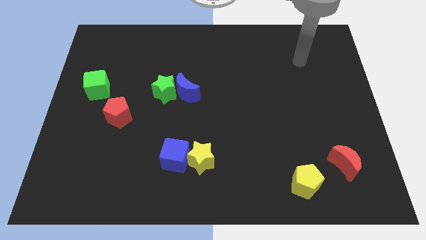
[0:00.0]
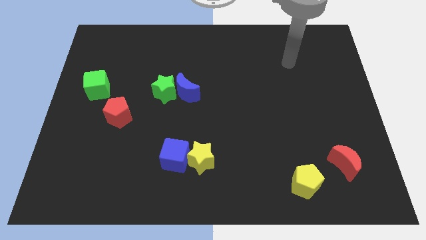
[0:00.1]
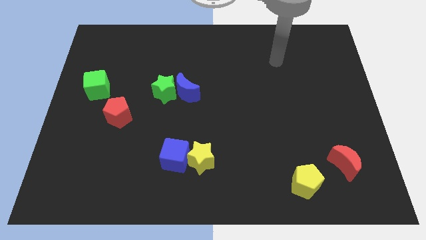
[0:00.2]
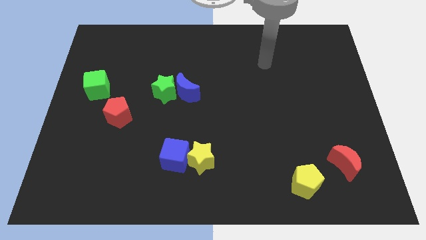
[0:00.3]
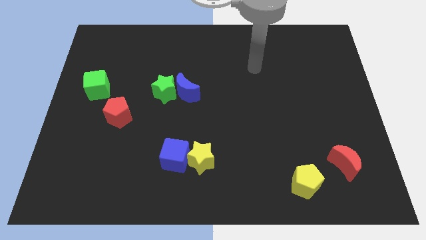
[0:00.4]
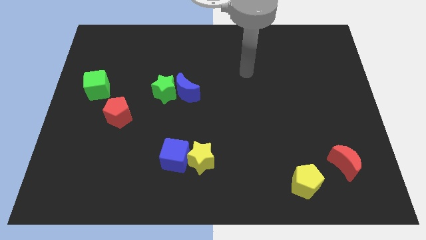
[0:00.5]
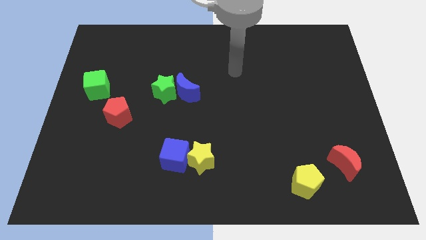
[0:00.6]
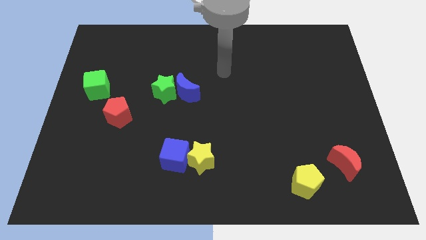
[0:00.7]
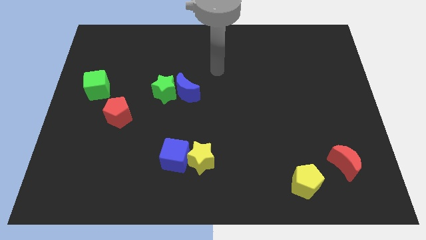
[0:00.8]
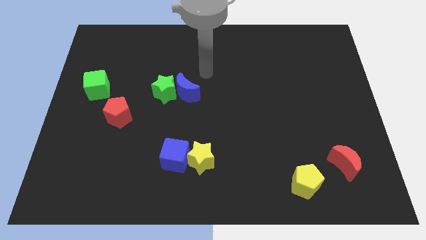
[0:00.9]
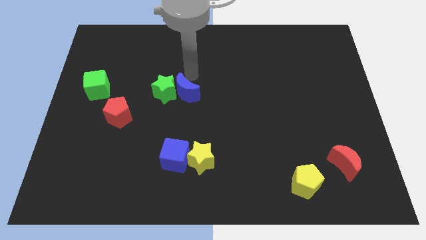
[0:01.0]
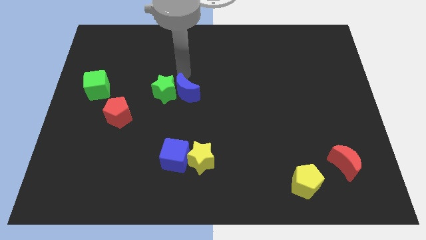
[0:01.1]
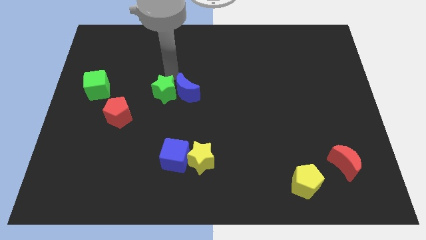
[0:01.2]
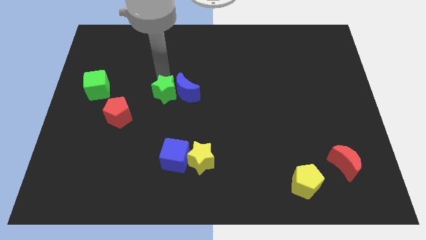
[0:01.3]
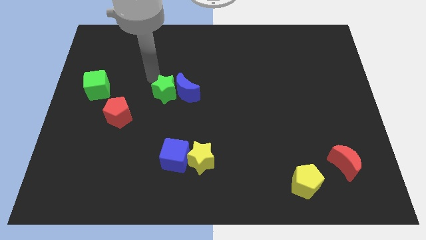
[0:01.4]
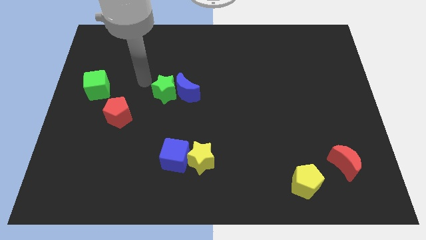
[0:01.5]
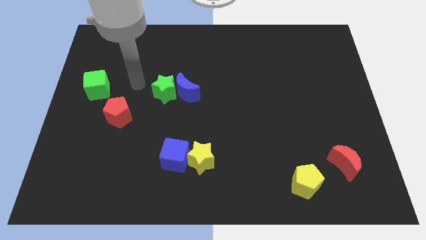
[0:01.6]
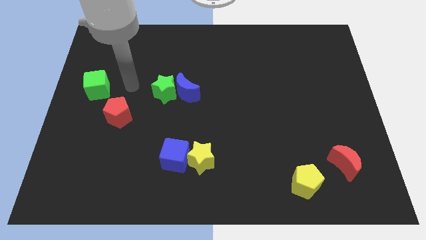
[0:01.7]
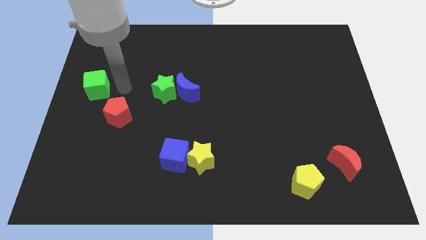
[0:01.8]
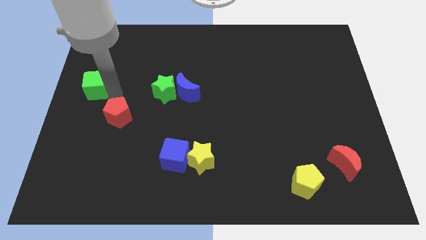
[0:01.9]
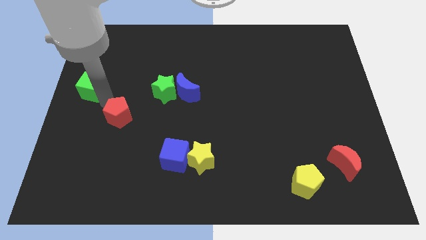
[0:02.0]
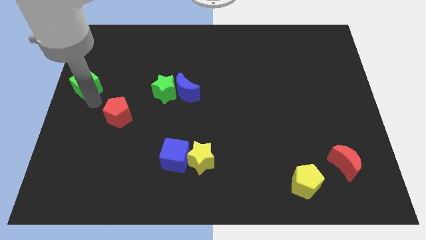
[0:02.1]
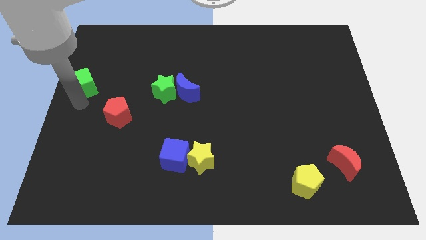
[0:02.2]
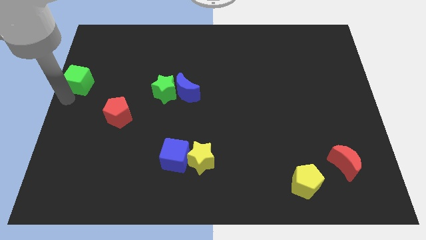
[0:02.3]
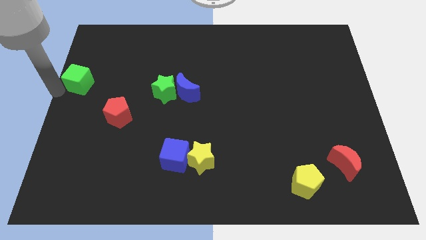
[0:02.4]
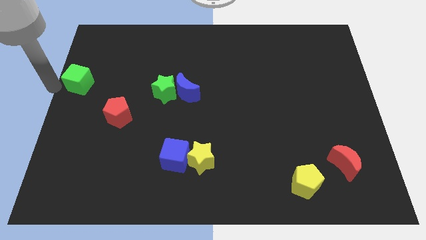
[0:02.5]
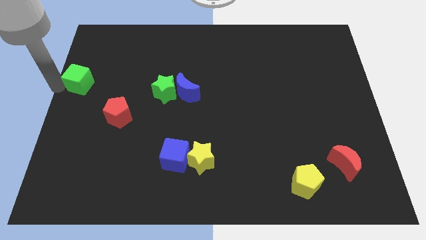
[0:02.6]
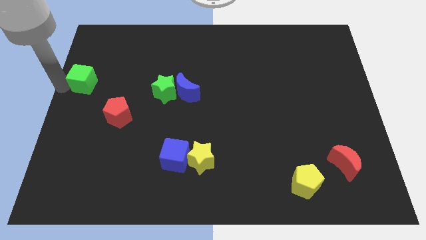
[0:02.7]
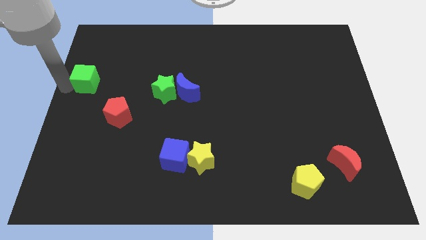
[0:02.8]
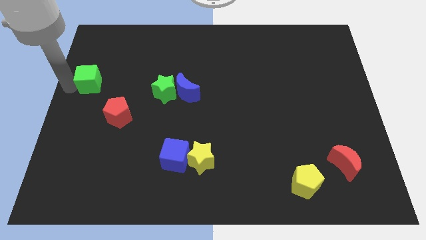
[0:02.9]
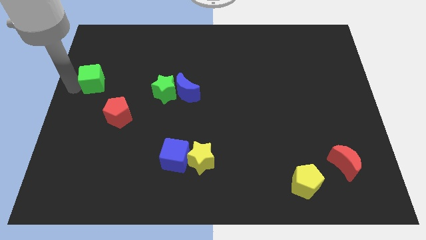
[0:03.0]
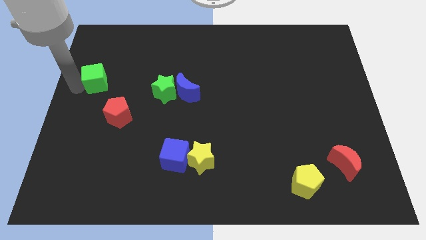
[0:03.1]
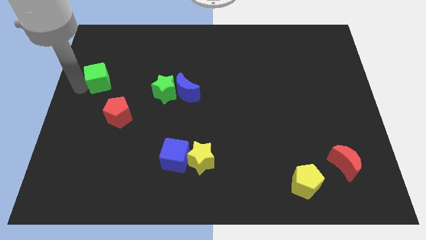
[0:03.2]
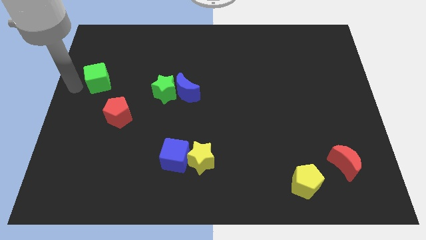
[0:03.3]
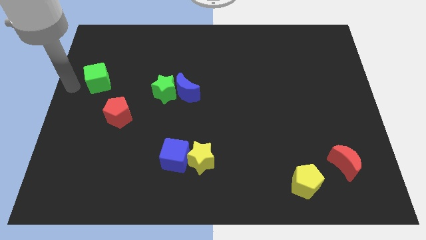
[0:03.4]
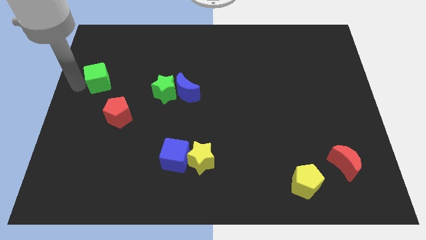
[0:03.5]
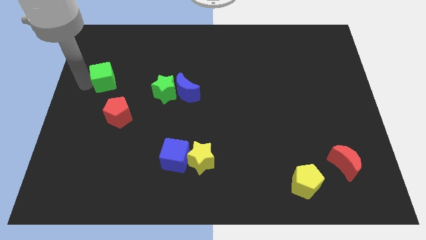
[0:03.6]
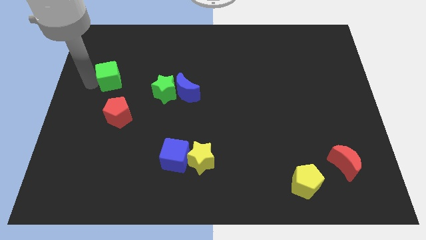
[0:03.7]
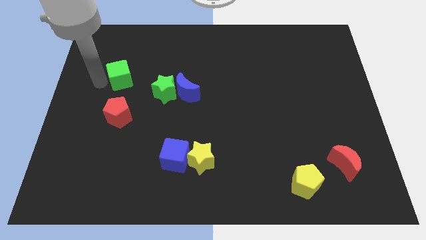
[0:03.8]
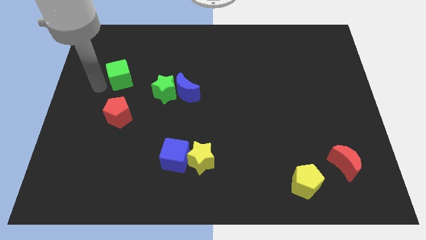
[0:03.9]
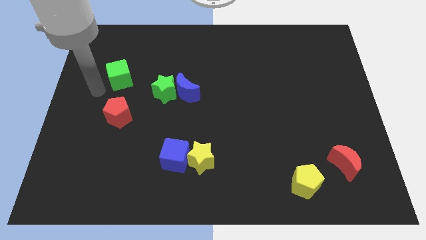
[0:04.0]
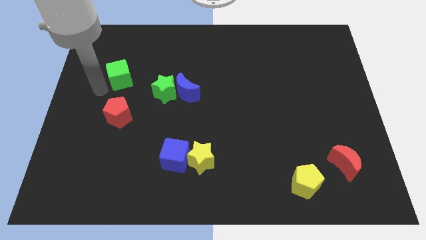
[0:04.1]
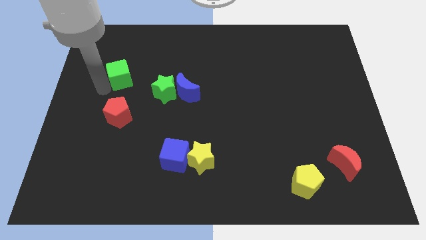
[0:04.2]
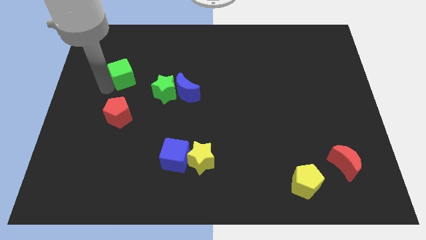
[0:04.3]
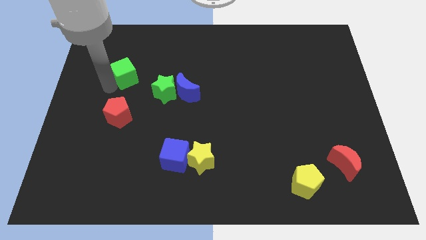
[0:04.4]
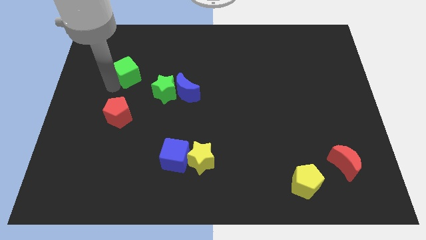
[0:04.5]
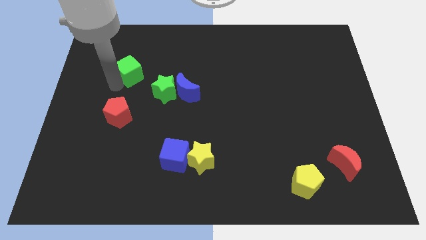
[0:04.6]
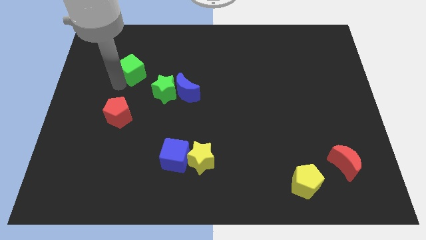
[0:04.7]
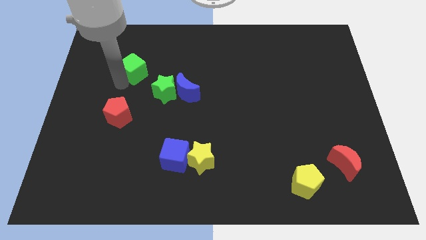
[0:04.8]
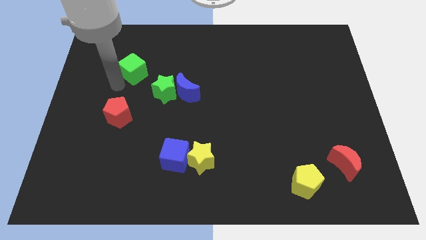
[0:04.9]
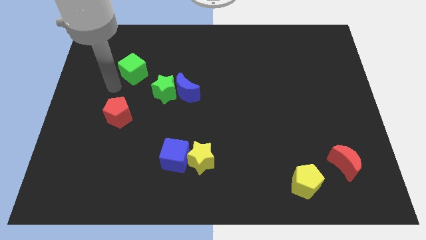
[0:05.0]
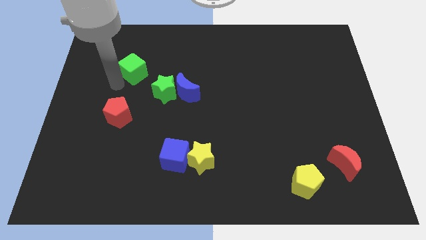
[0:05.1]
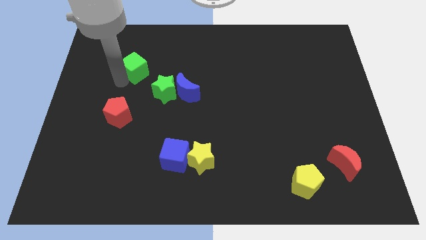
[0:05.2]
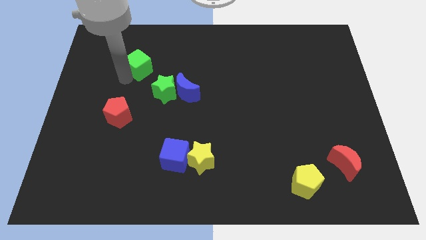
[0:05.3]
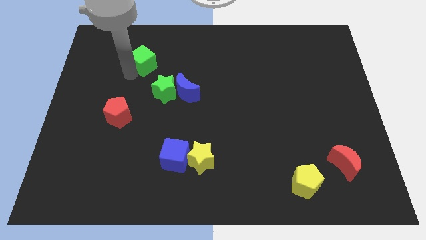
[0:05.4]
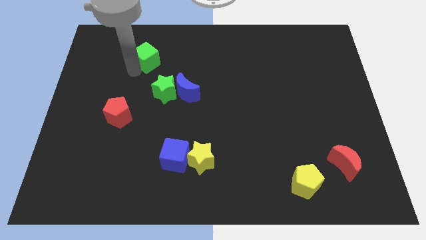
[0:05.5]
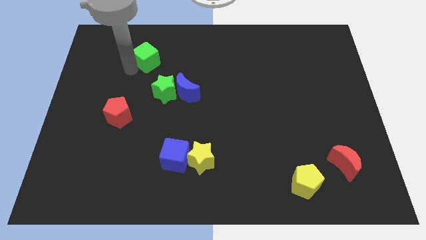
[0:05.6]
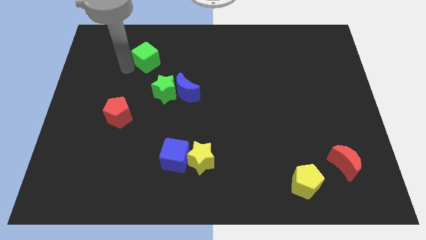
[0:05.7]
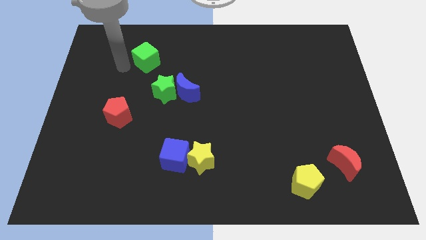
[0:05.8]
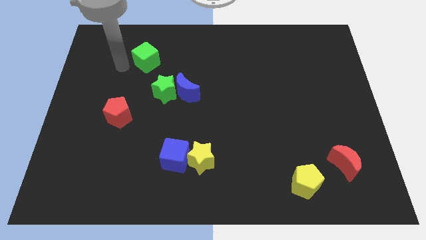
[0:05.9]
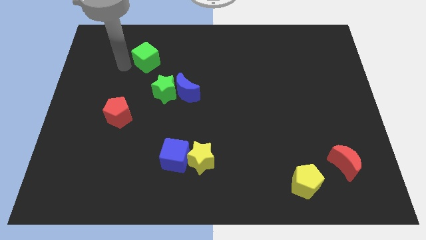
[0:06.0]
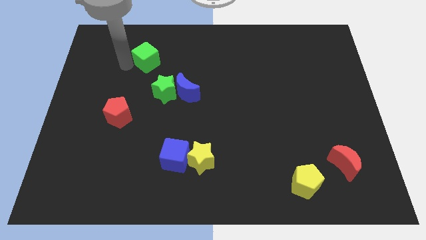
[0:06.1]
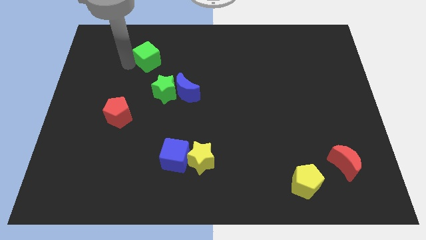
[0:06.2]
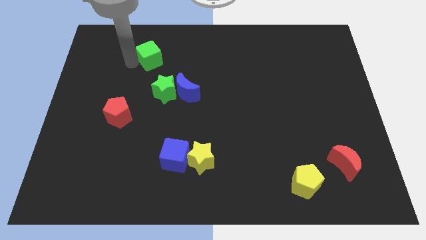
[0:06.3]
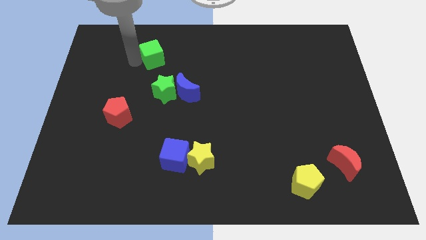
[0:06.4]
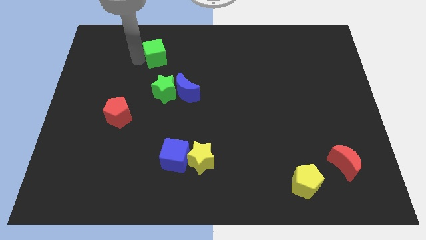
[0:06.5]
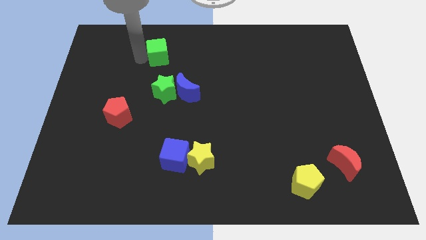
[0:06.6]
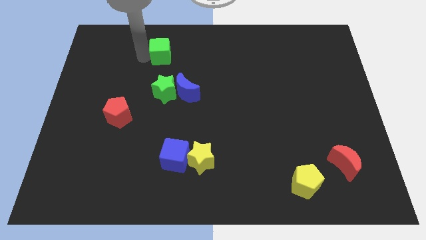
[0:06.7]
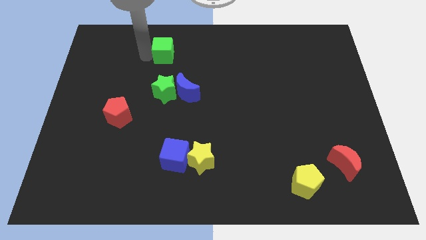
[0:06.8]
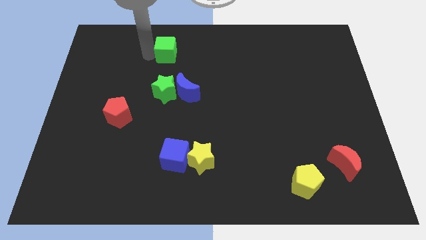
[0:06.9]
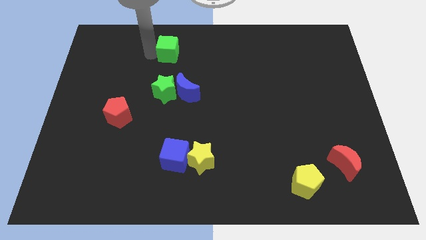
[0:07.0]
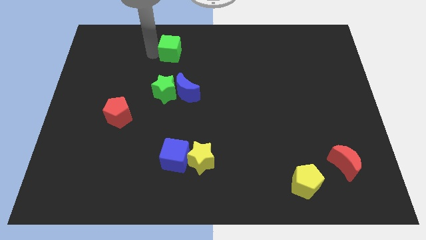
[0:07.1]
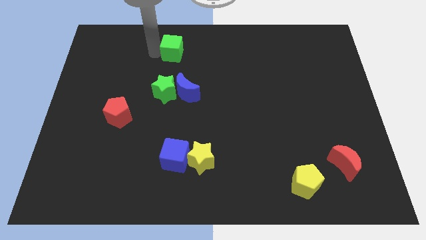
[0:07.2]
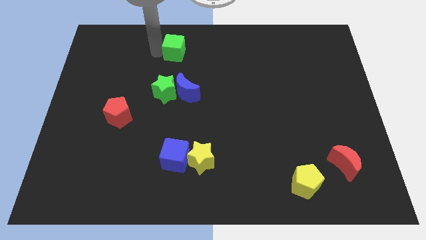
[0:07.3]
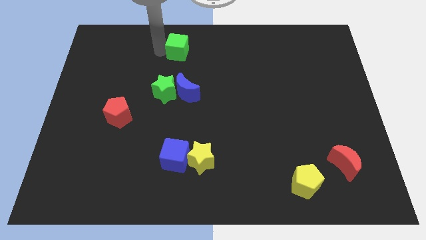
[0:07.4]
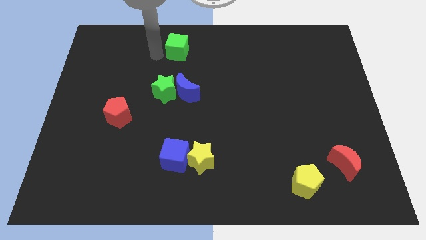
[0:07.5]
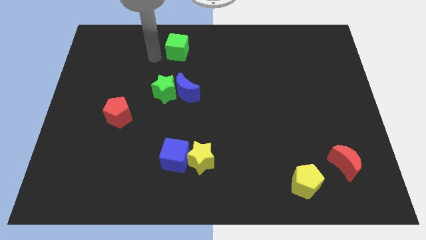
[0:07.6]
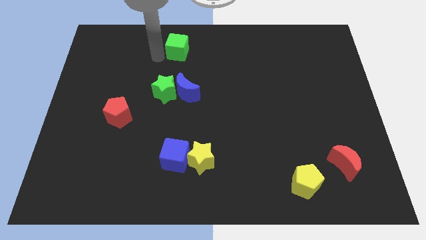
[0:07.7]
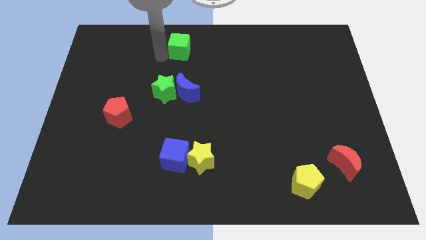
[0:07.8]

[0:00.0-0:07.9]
move the green cube to the towards your base
